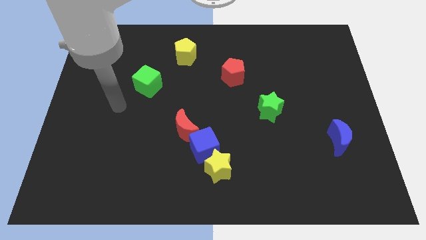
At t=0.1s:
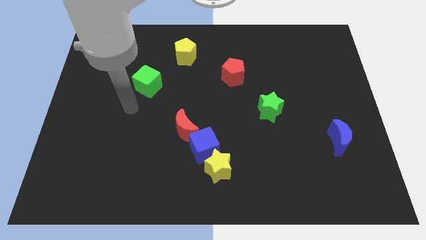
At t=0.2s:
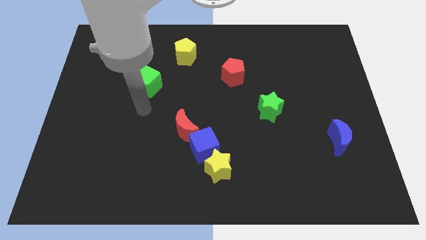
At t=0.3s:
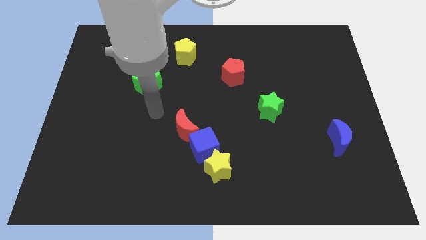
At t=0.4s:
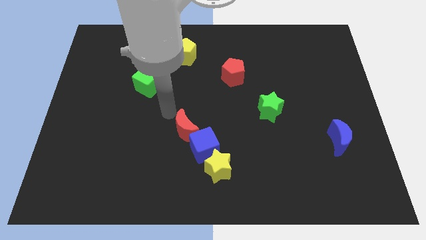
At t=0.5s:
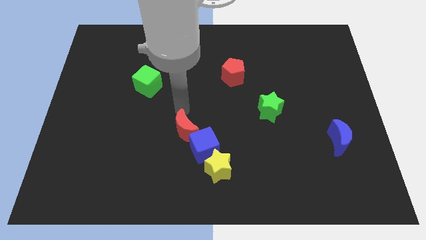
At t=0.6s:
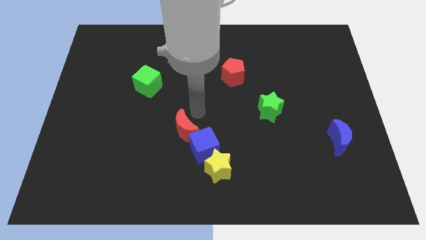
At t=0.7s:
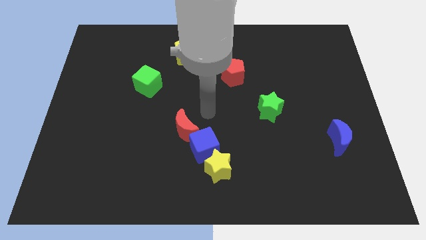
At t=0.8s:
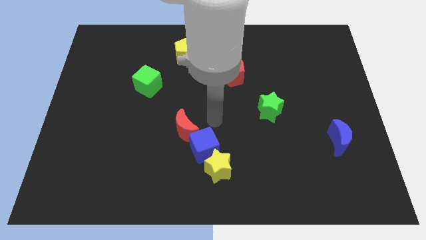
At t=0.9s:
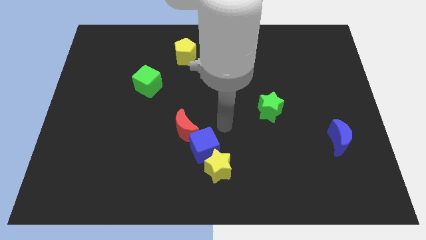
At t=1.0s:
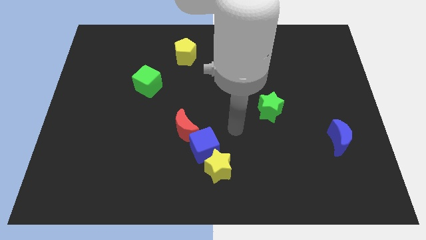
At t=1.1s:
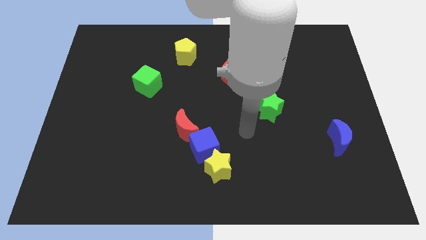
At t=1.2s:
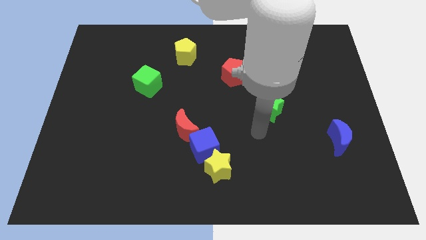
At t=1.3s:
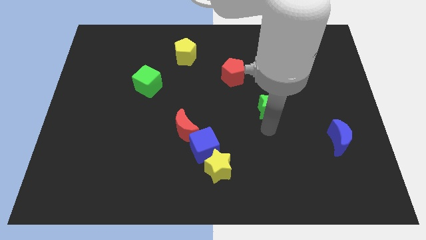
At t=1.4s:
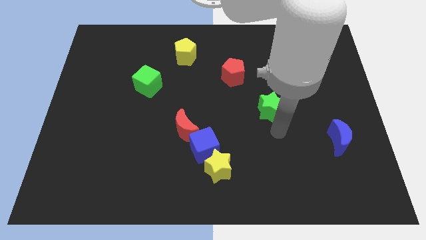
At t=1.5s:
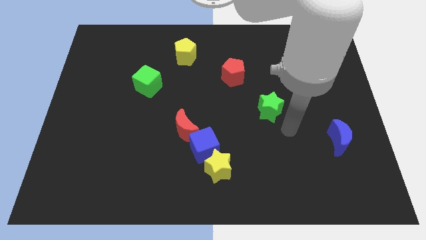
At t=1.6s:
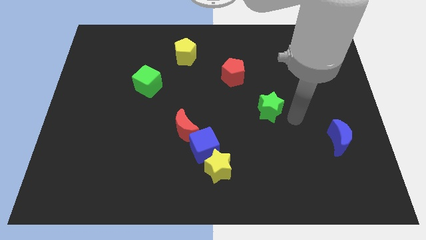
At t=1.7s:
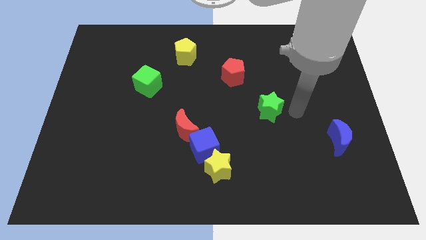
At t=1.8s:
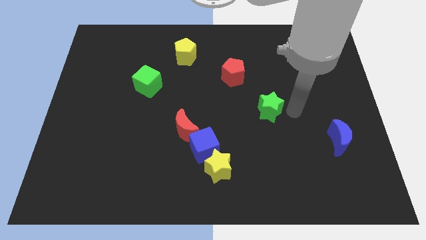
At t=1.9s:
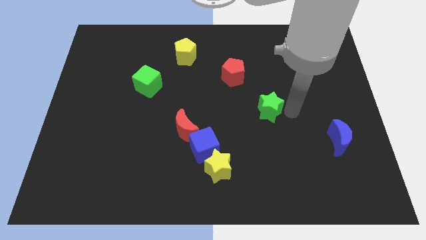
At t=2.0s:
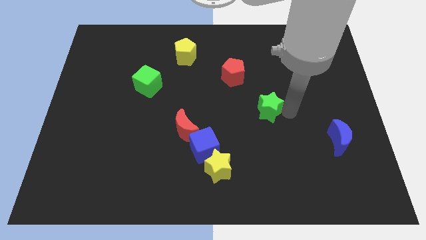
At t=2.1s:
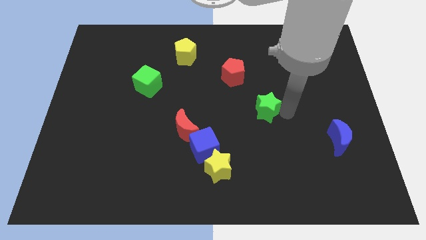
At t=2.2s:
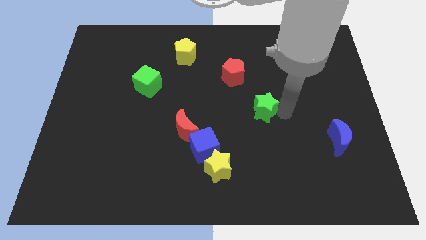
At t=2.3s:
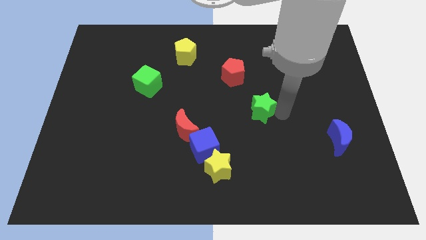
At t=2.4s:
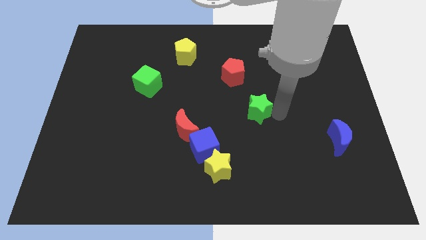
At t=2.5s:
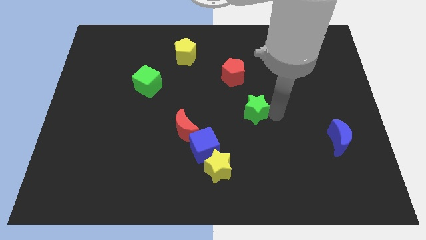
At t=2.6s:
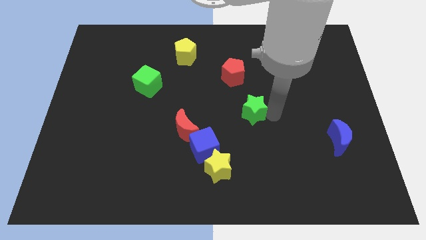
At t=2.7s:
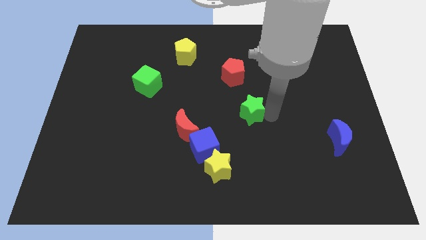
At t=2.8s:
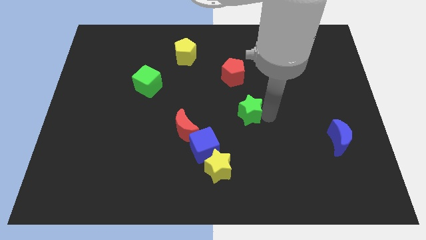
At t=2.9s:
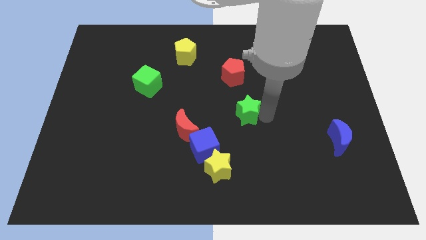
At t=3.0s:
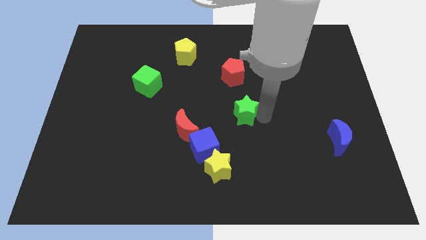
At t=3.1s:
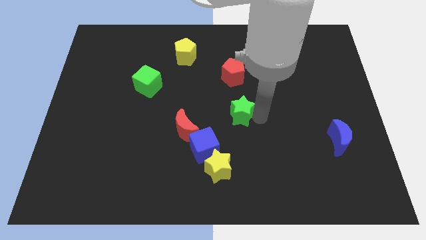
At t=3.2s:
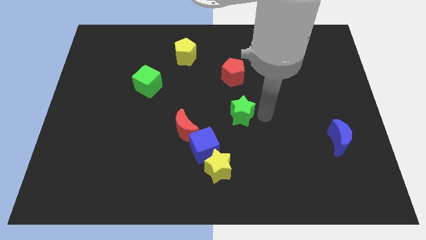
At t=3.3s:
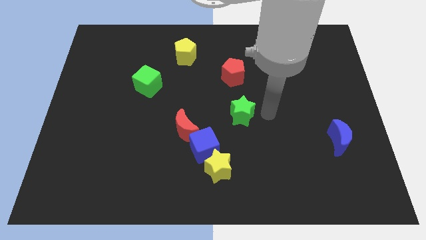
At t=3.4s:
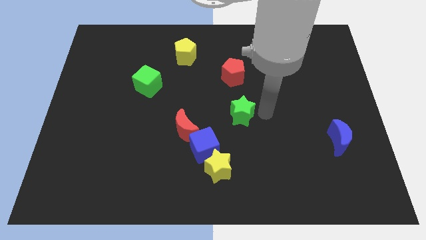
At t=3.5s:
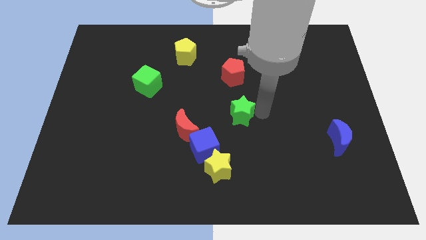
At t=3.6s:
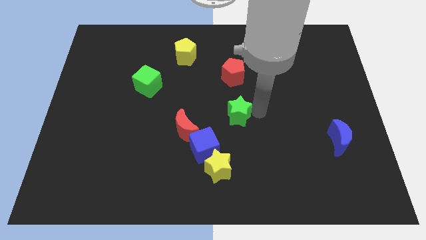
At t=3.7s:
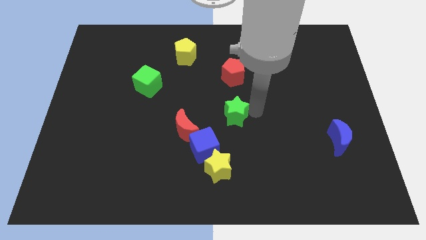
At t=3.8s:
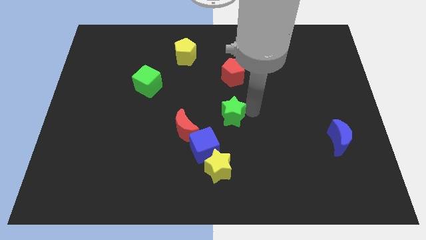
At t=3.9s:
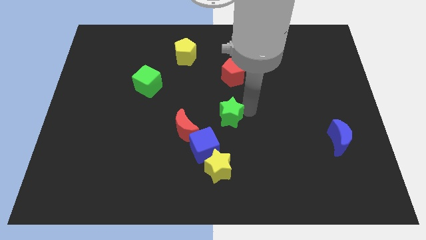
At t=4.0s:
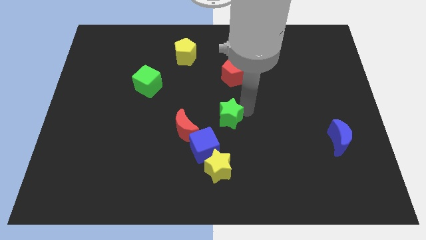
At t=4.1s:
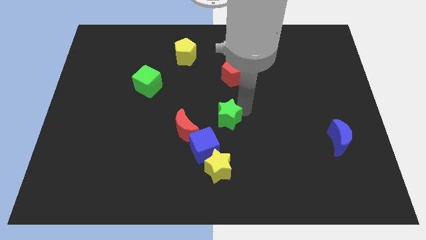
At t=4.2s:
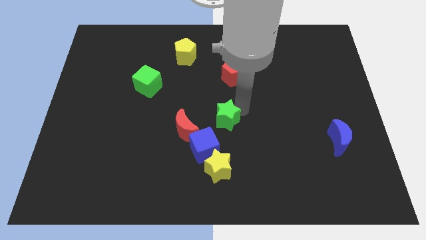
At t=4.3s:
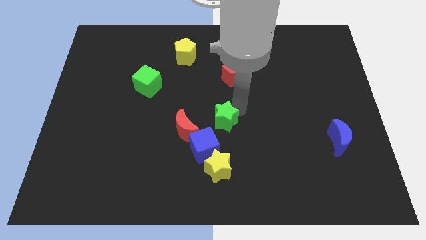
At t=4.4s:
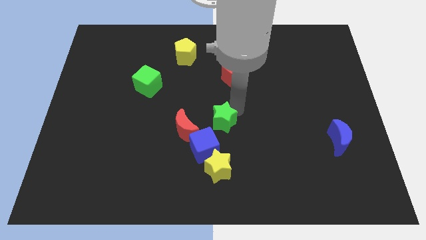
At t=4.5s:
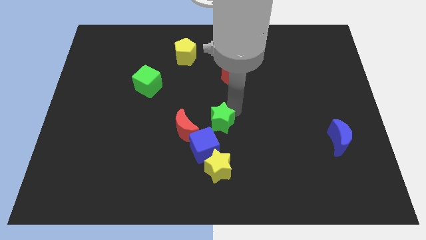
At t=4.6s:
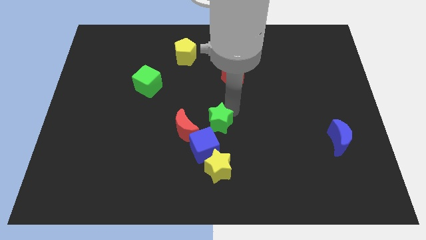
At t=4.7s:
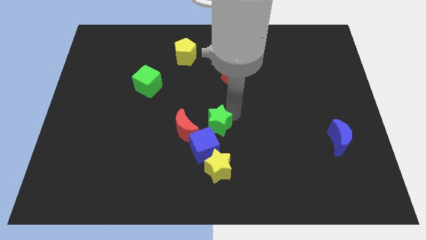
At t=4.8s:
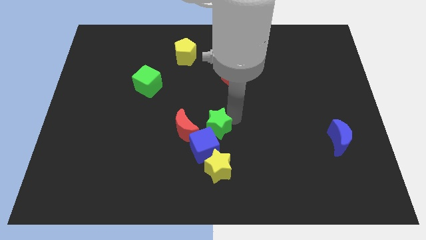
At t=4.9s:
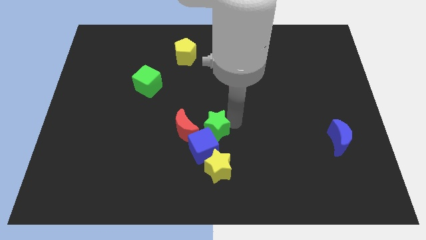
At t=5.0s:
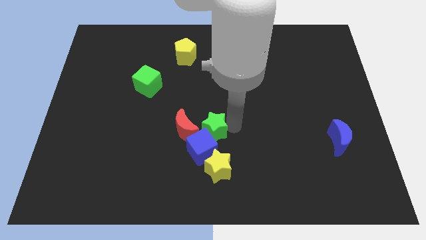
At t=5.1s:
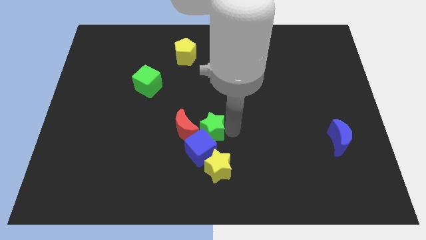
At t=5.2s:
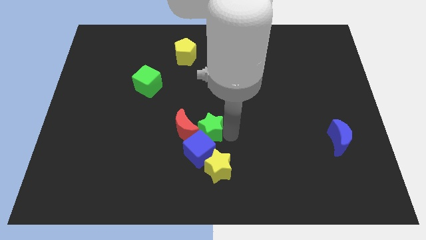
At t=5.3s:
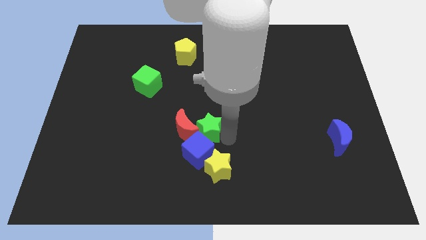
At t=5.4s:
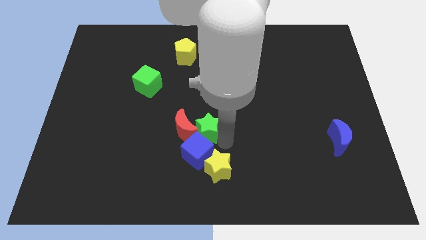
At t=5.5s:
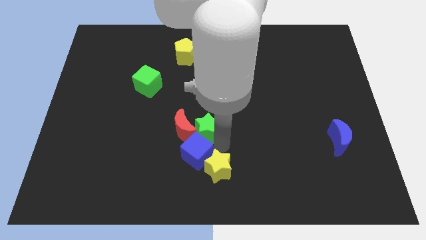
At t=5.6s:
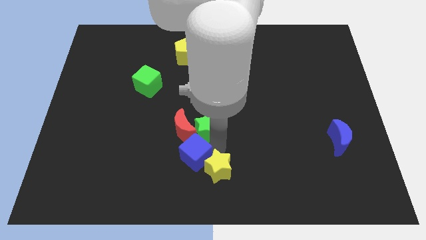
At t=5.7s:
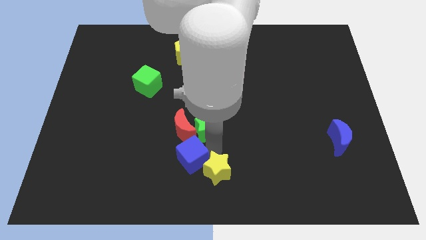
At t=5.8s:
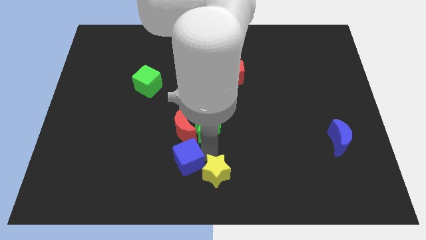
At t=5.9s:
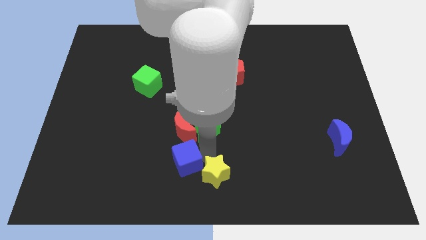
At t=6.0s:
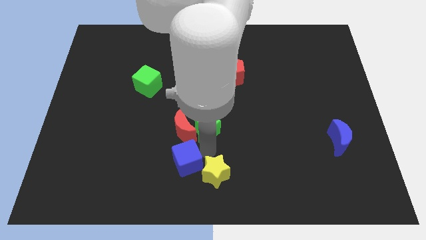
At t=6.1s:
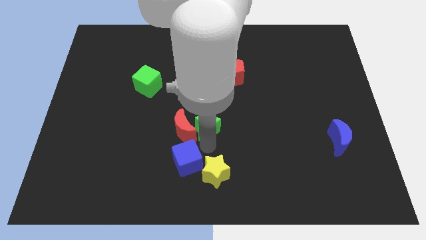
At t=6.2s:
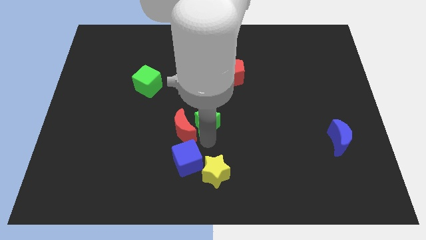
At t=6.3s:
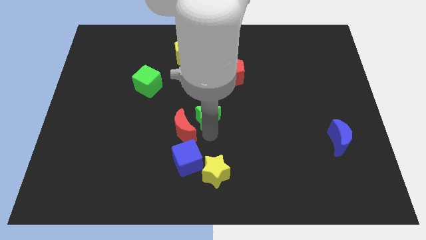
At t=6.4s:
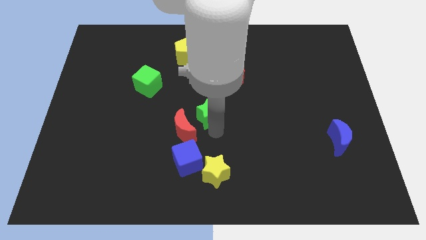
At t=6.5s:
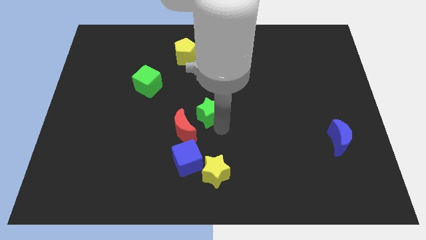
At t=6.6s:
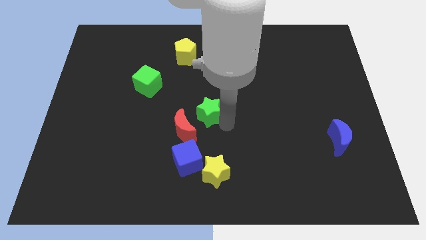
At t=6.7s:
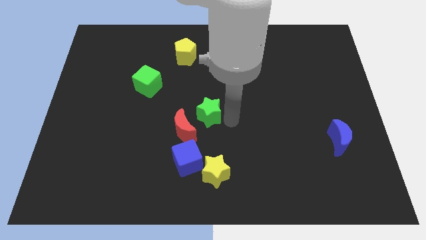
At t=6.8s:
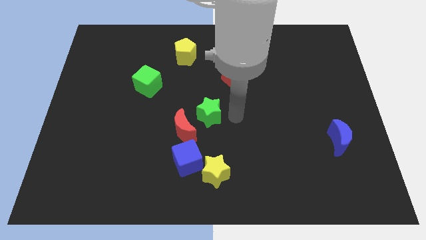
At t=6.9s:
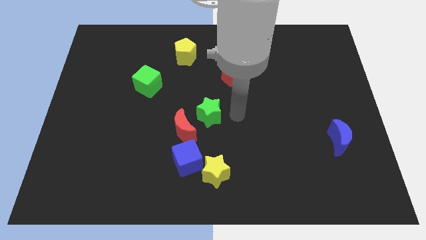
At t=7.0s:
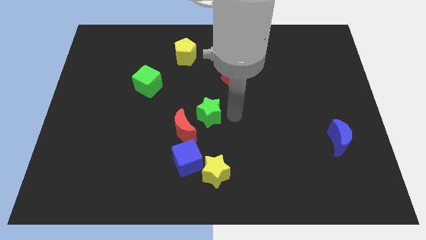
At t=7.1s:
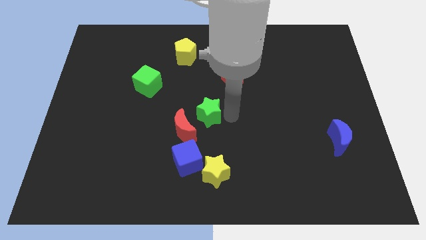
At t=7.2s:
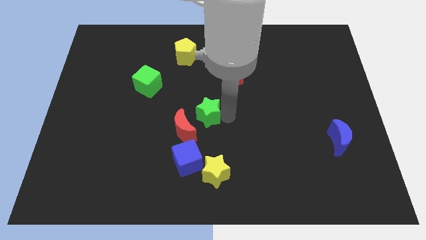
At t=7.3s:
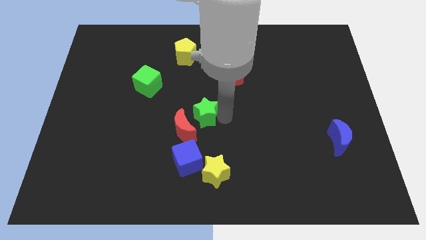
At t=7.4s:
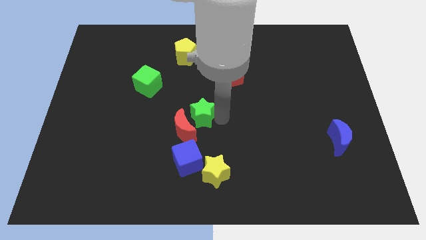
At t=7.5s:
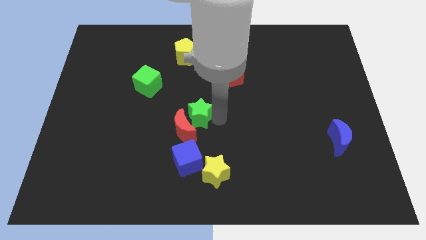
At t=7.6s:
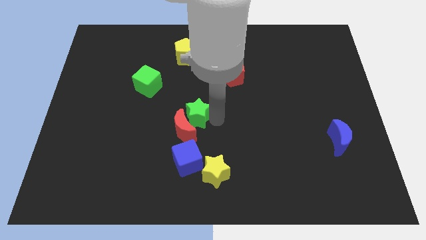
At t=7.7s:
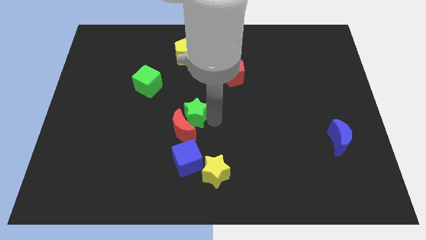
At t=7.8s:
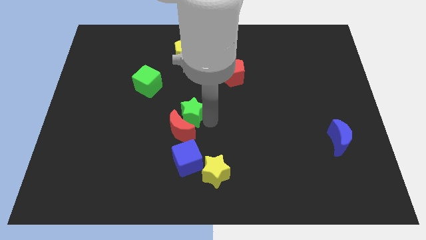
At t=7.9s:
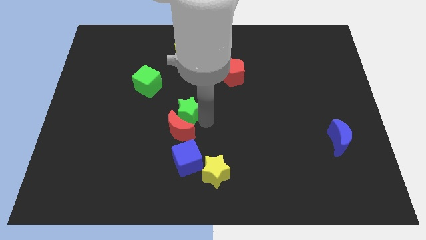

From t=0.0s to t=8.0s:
slide the green star to the top left side of the red moon
